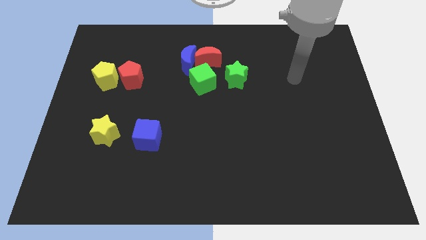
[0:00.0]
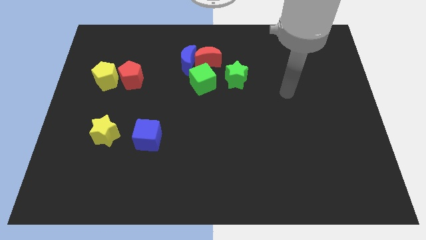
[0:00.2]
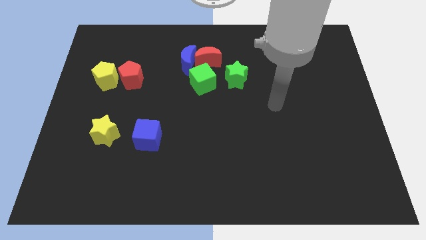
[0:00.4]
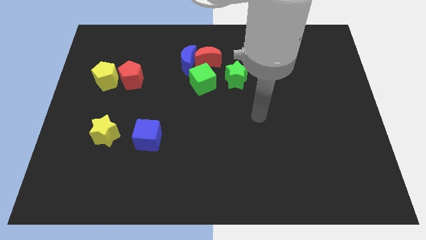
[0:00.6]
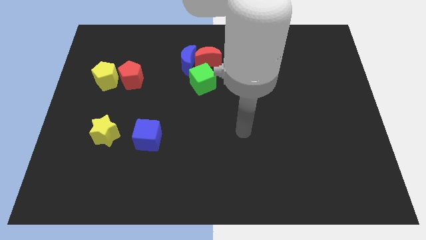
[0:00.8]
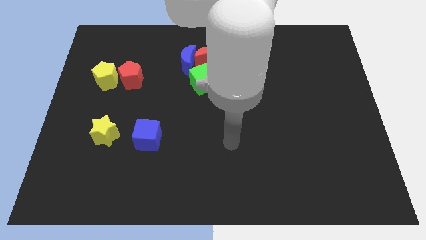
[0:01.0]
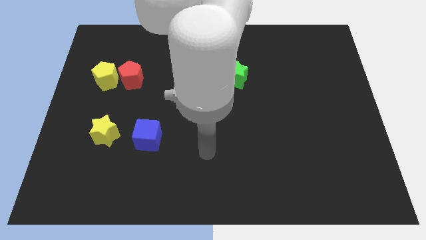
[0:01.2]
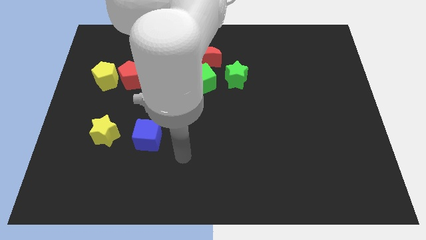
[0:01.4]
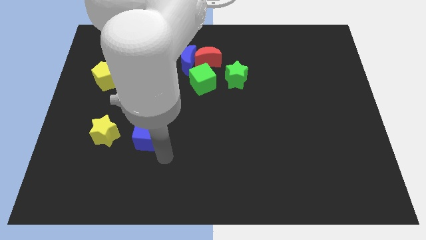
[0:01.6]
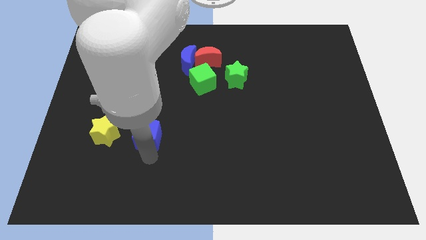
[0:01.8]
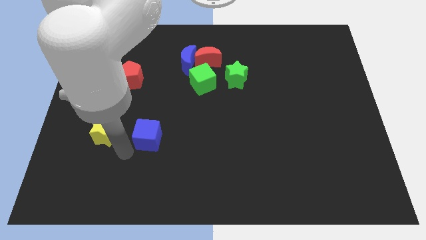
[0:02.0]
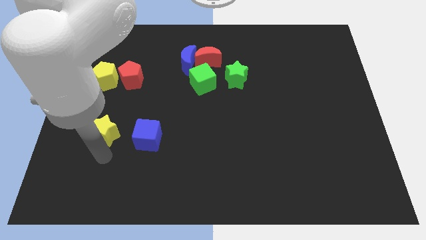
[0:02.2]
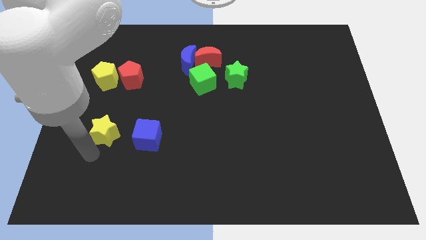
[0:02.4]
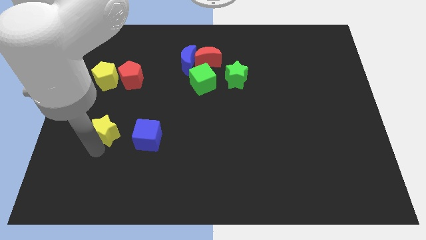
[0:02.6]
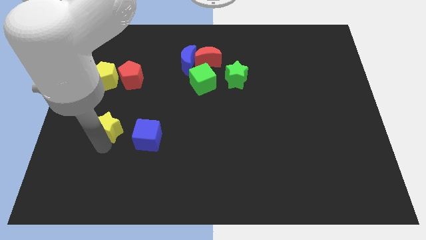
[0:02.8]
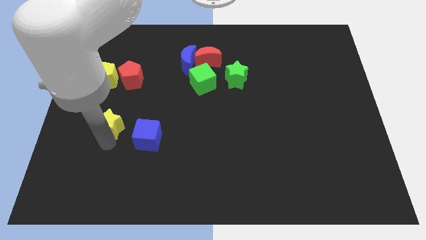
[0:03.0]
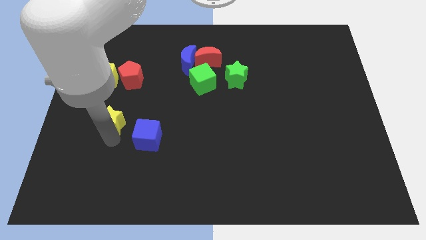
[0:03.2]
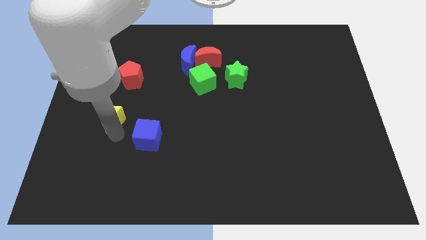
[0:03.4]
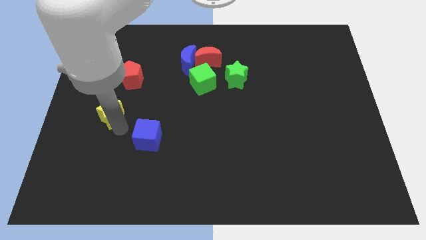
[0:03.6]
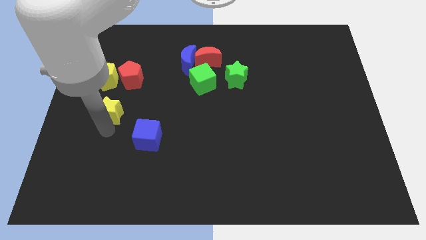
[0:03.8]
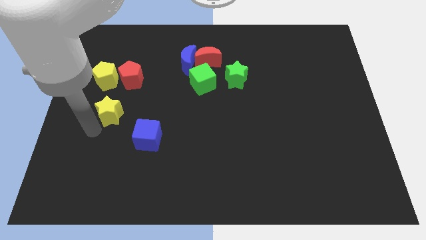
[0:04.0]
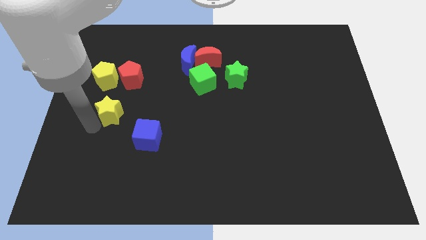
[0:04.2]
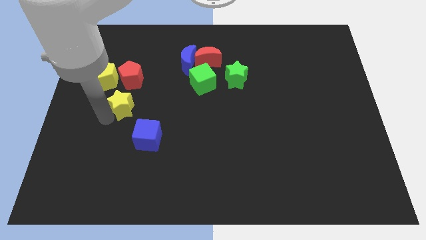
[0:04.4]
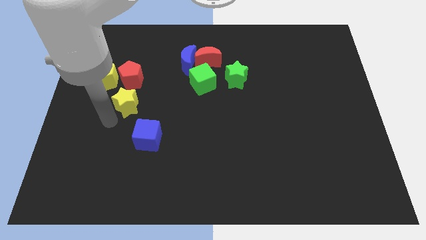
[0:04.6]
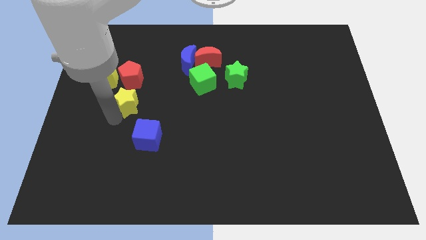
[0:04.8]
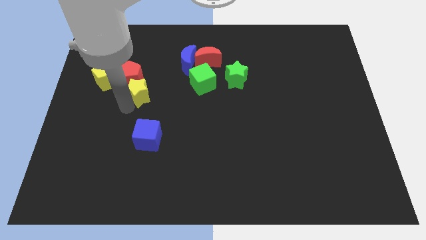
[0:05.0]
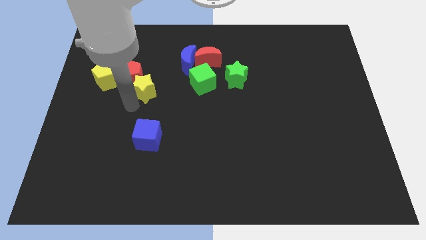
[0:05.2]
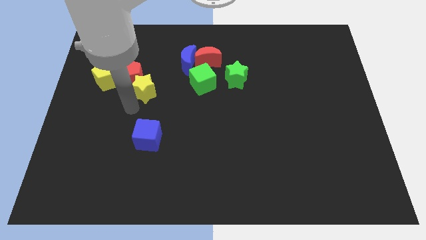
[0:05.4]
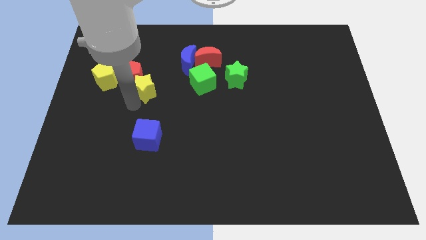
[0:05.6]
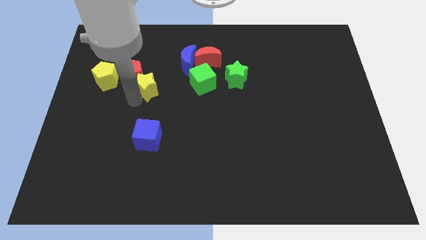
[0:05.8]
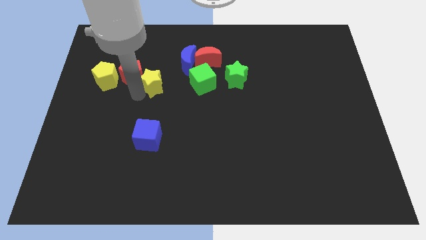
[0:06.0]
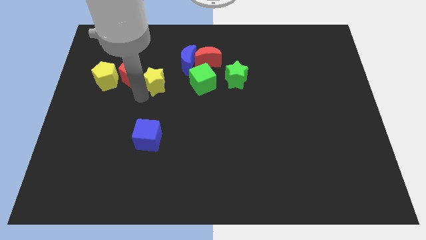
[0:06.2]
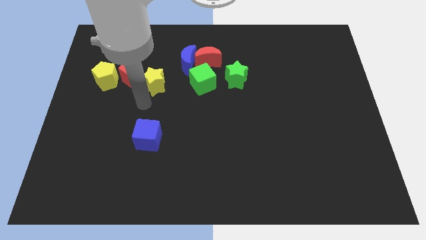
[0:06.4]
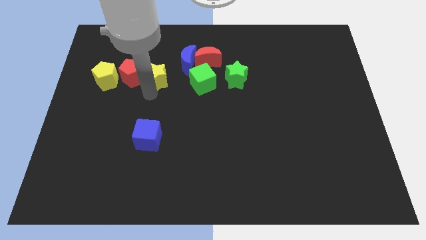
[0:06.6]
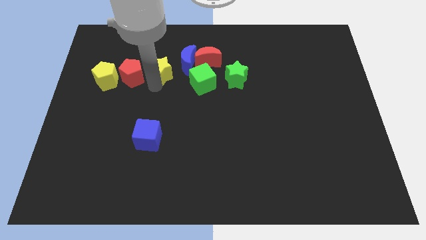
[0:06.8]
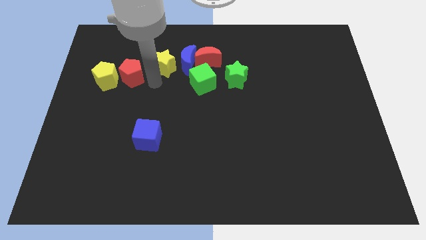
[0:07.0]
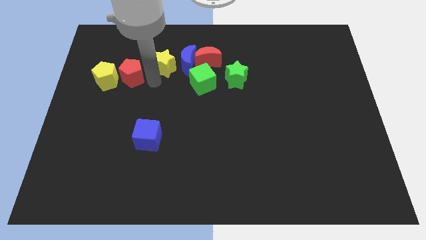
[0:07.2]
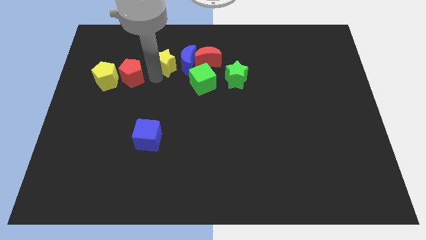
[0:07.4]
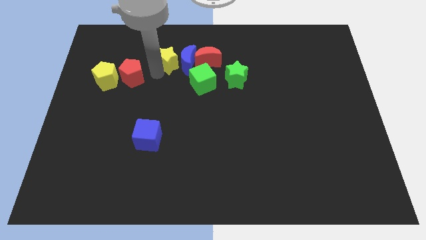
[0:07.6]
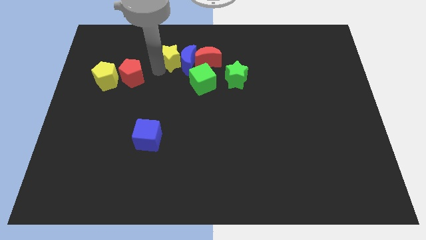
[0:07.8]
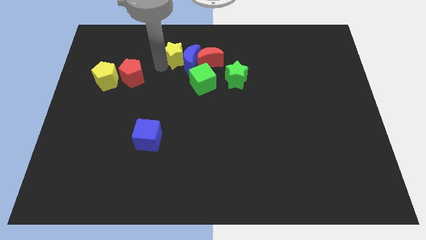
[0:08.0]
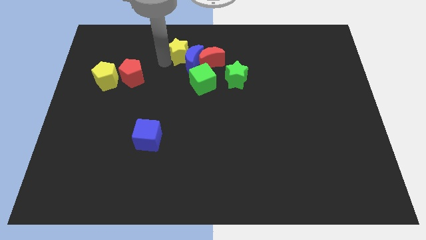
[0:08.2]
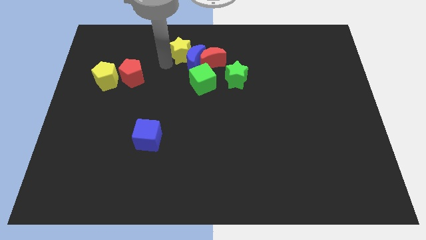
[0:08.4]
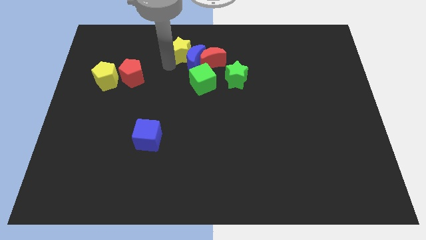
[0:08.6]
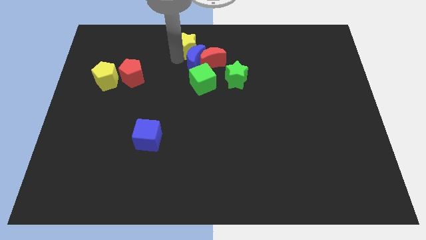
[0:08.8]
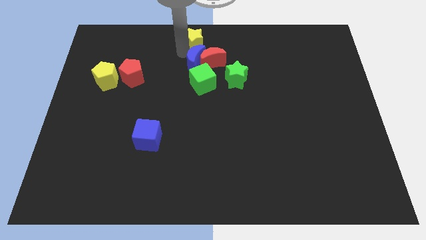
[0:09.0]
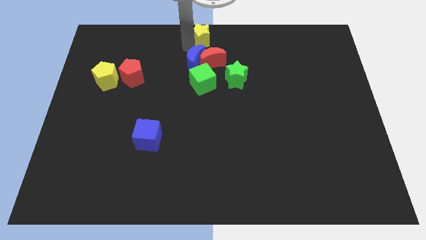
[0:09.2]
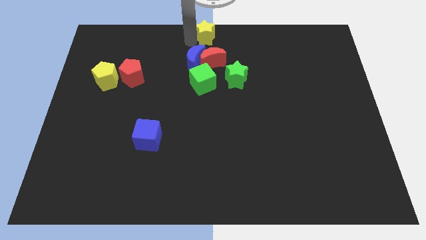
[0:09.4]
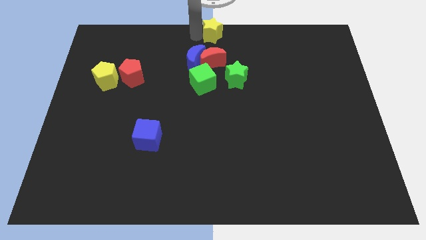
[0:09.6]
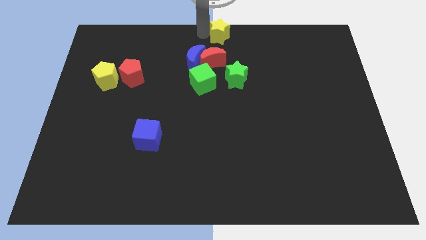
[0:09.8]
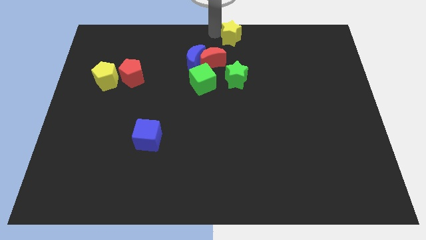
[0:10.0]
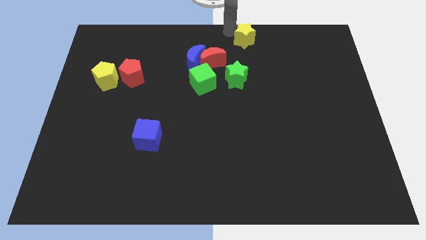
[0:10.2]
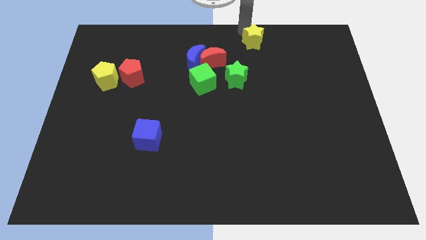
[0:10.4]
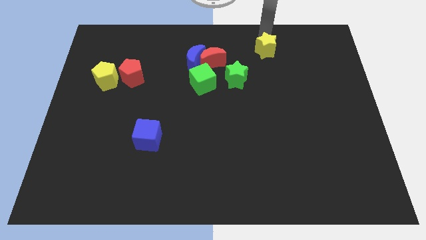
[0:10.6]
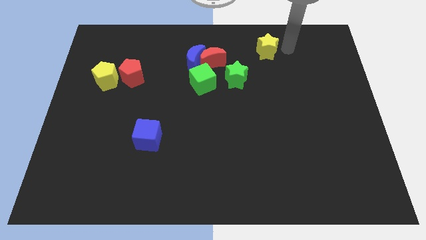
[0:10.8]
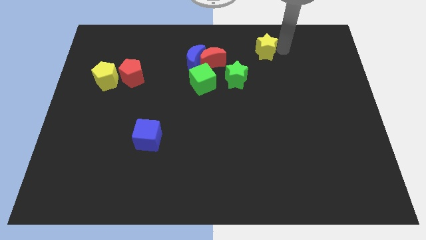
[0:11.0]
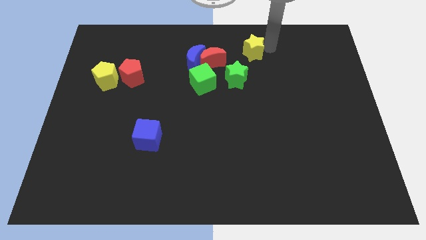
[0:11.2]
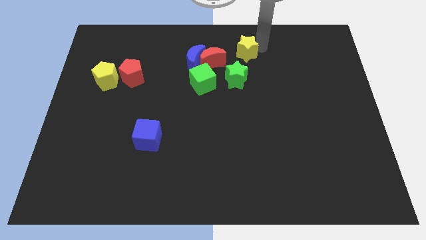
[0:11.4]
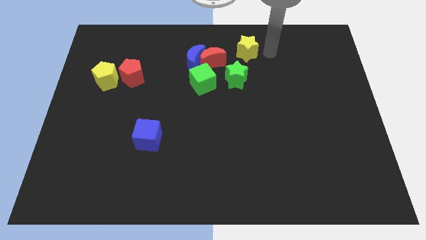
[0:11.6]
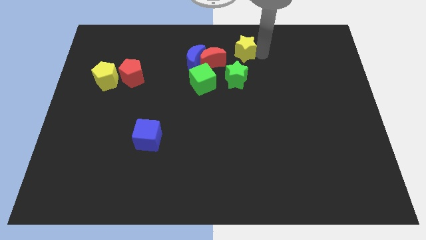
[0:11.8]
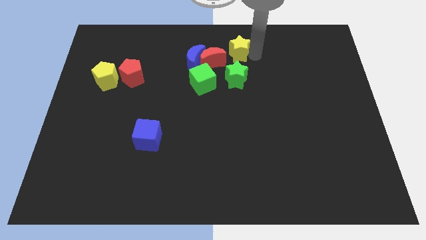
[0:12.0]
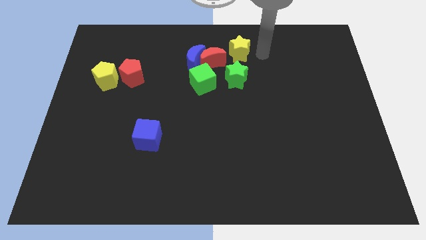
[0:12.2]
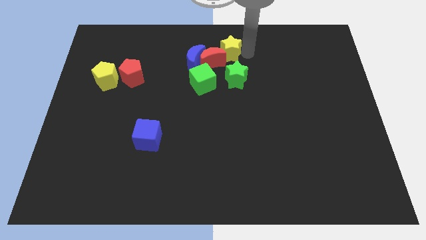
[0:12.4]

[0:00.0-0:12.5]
move the yellow star to the red moon

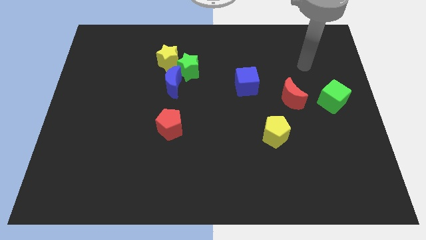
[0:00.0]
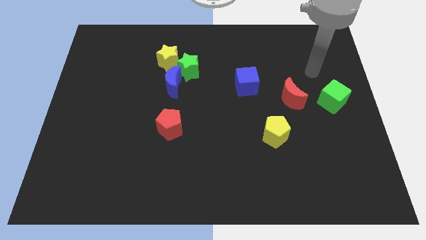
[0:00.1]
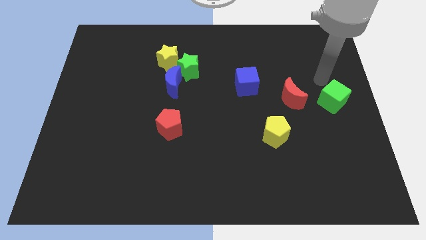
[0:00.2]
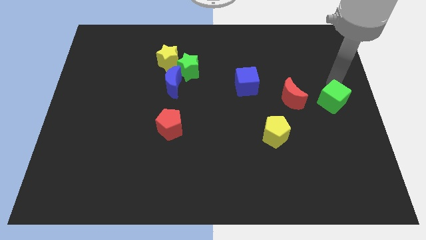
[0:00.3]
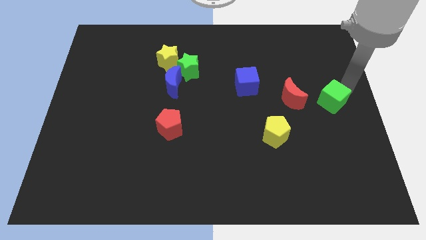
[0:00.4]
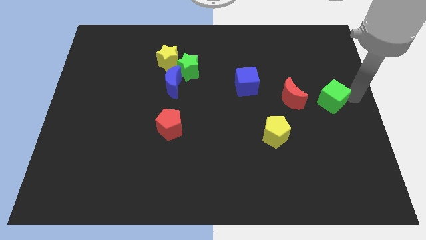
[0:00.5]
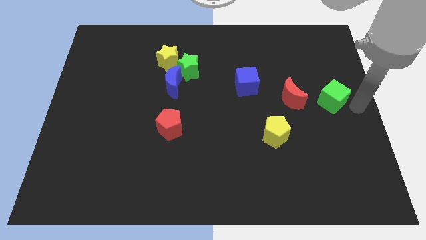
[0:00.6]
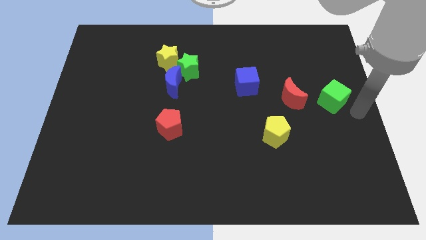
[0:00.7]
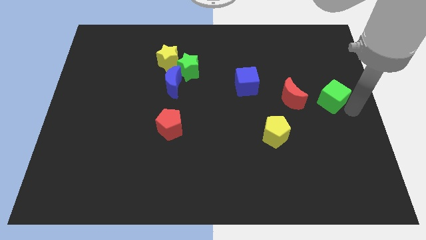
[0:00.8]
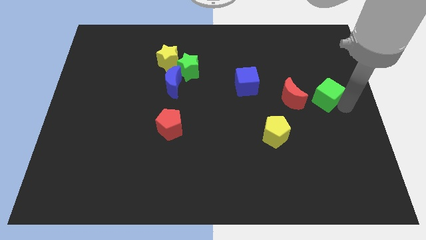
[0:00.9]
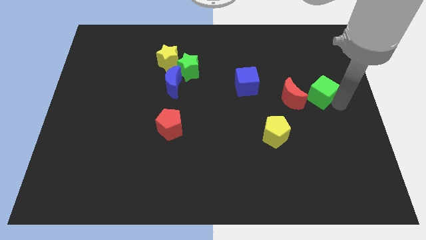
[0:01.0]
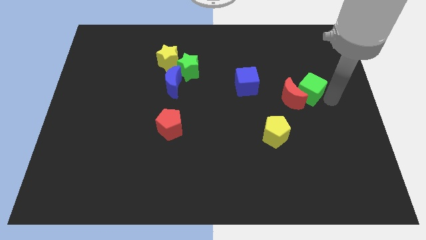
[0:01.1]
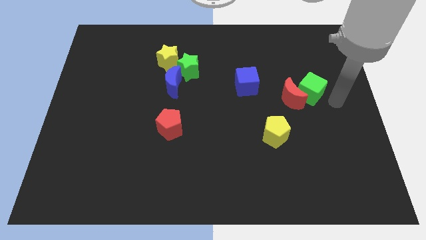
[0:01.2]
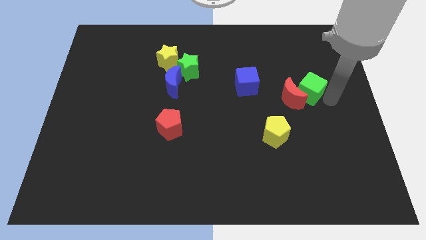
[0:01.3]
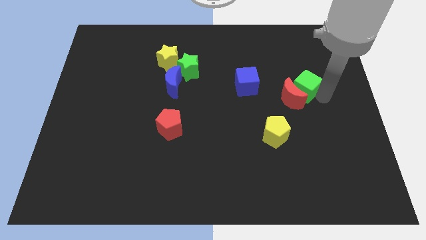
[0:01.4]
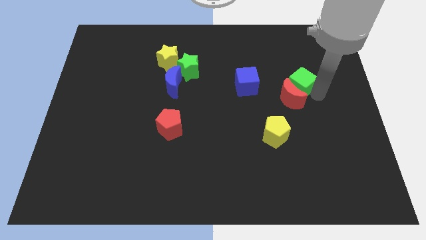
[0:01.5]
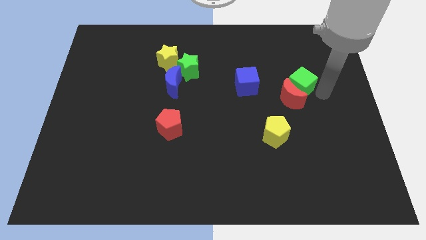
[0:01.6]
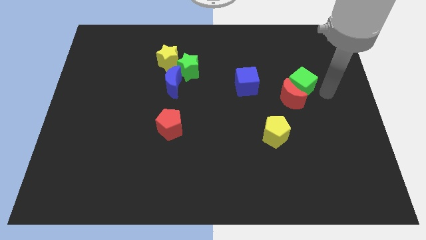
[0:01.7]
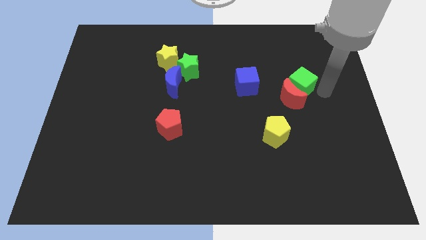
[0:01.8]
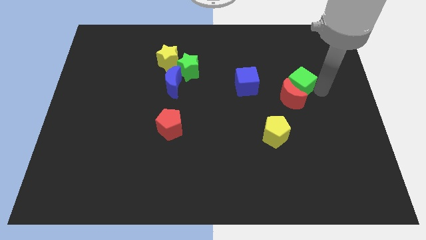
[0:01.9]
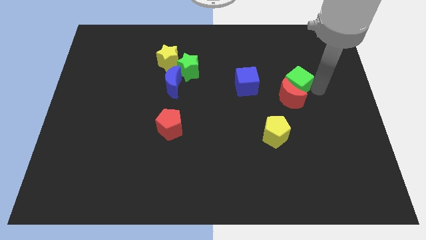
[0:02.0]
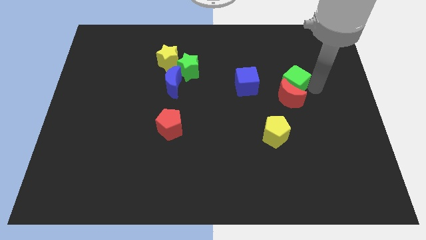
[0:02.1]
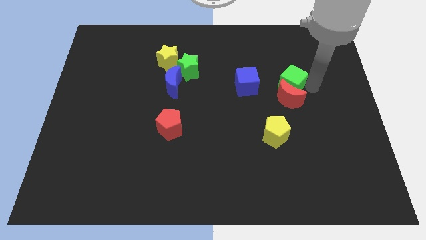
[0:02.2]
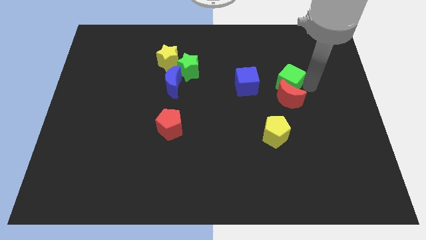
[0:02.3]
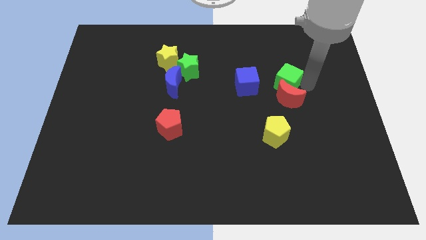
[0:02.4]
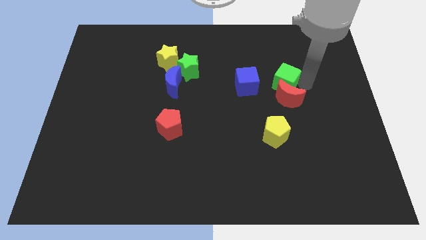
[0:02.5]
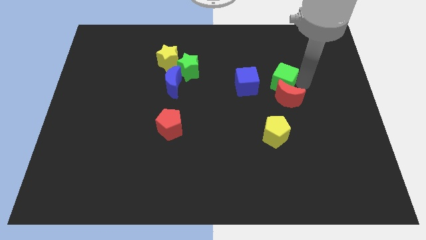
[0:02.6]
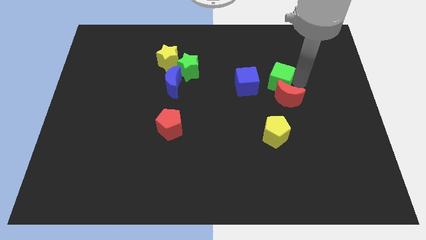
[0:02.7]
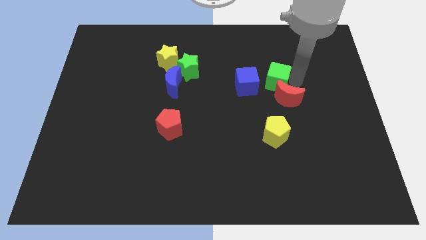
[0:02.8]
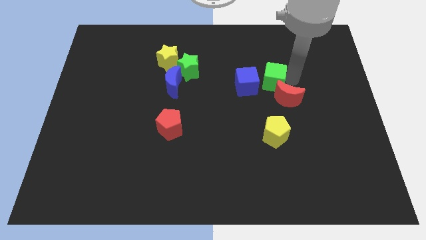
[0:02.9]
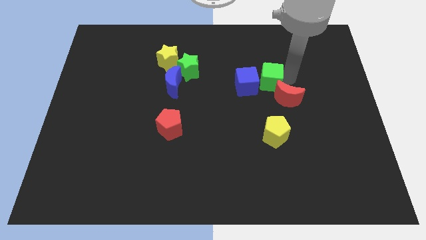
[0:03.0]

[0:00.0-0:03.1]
move the green cube close to the blue cube
